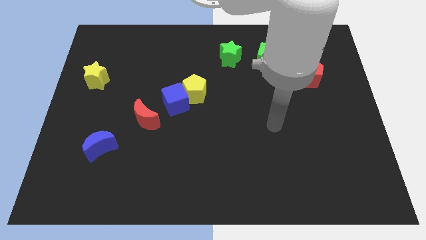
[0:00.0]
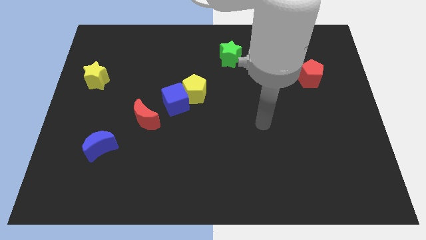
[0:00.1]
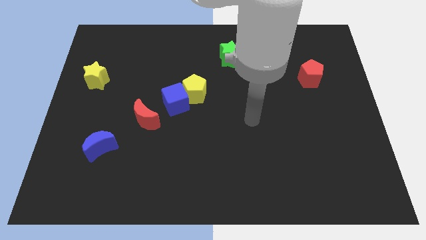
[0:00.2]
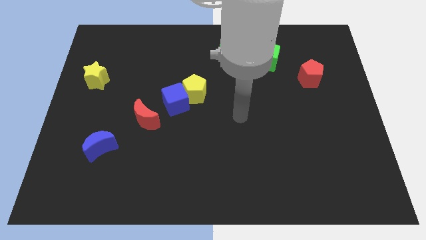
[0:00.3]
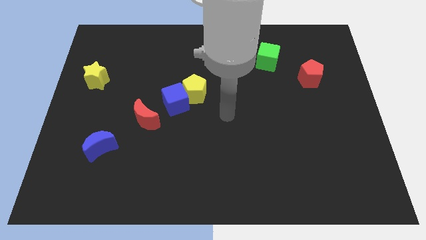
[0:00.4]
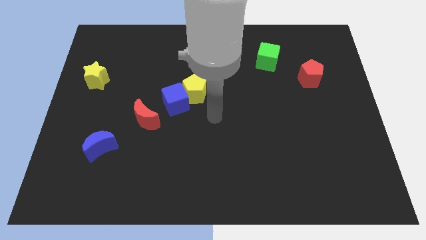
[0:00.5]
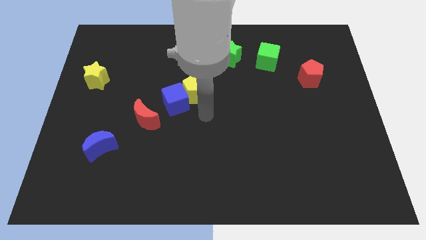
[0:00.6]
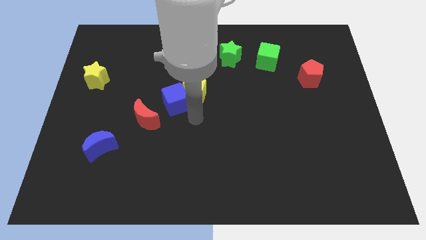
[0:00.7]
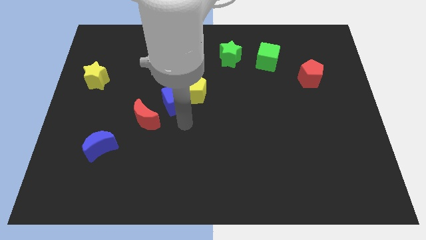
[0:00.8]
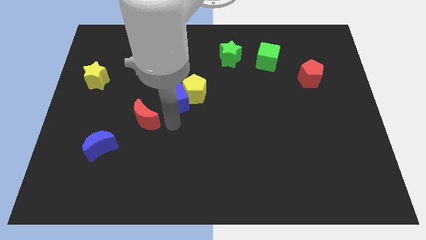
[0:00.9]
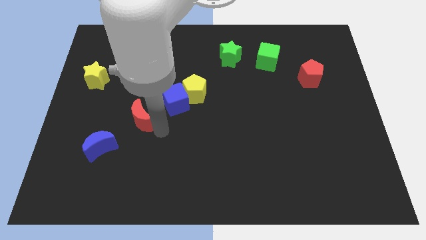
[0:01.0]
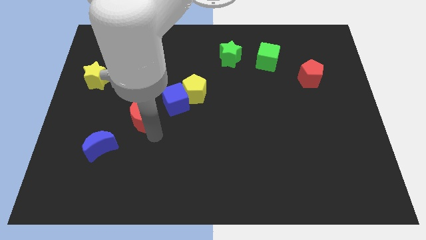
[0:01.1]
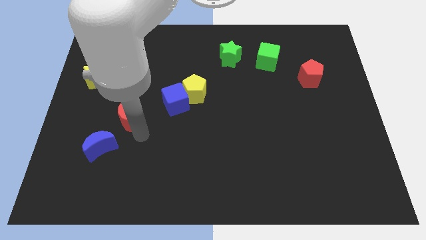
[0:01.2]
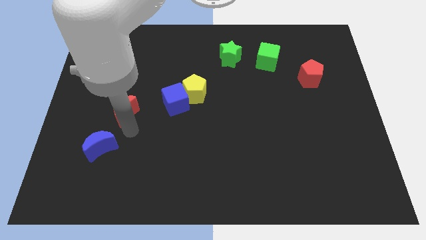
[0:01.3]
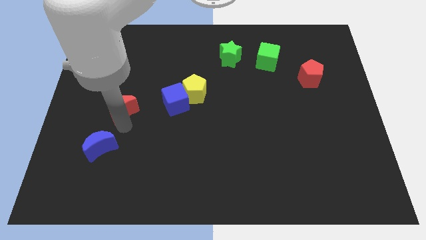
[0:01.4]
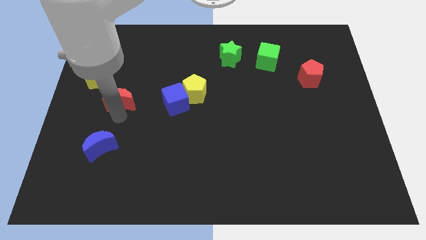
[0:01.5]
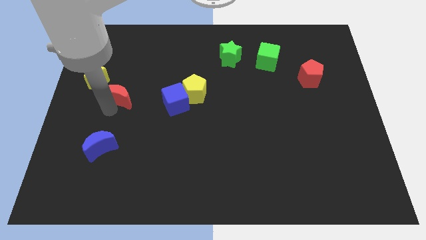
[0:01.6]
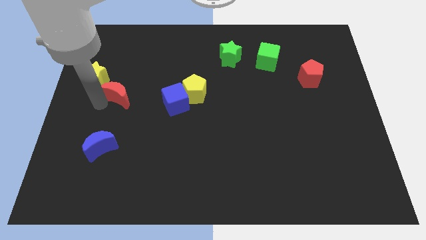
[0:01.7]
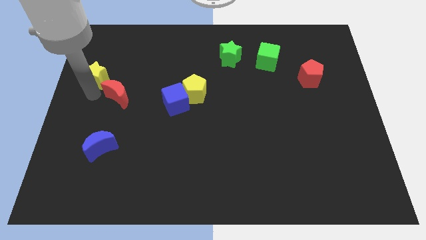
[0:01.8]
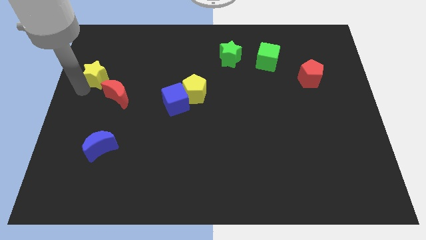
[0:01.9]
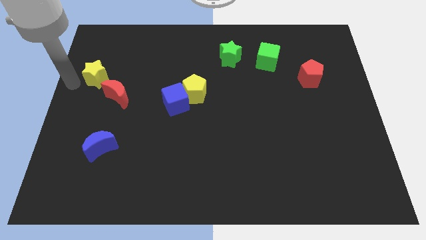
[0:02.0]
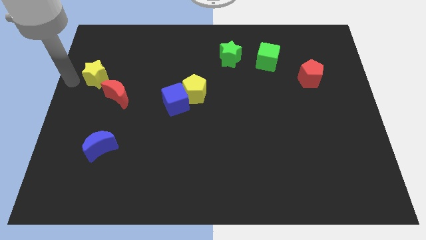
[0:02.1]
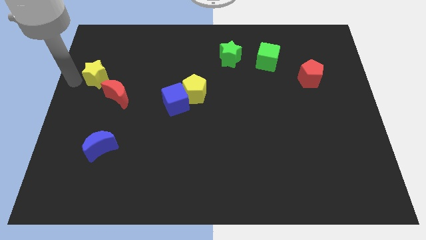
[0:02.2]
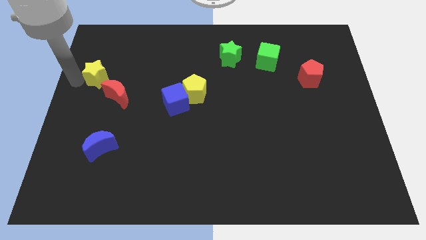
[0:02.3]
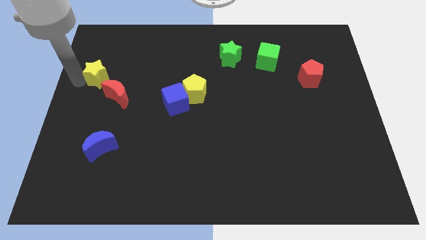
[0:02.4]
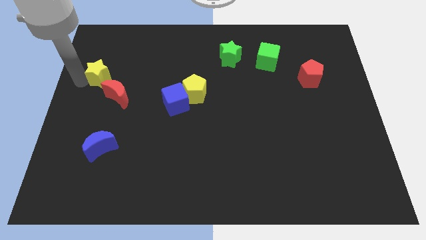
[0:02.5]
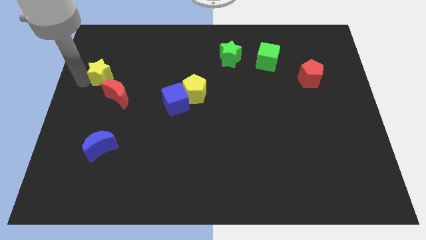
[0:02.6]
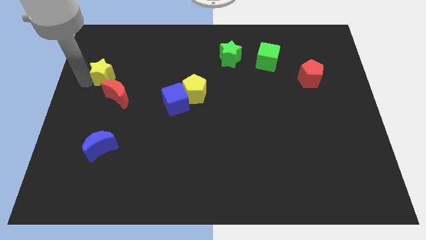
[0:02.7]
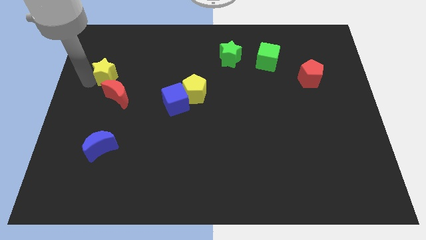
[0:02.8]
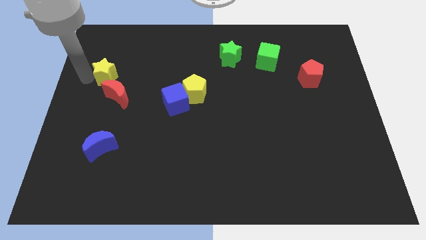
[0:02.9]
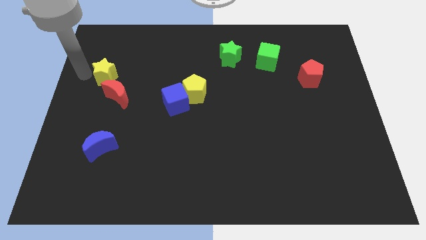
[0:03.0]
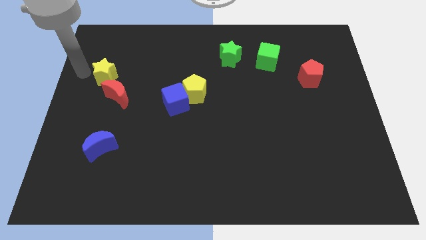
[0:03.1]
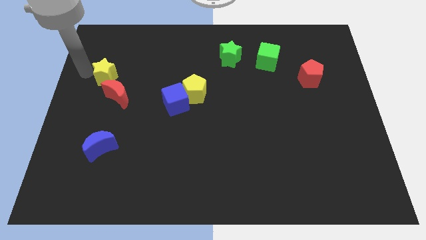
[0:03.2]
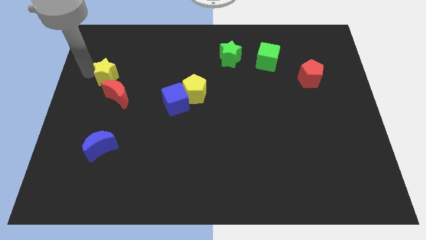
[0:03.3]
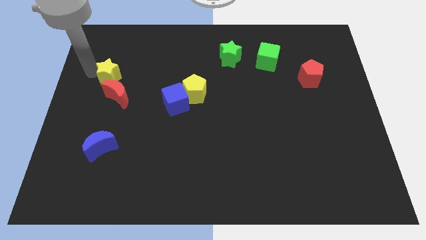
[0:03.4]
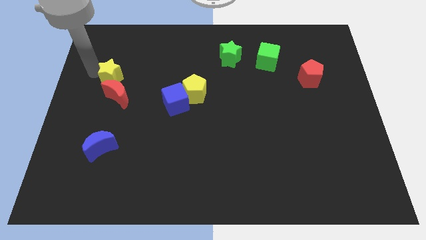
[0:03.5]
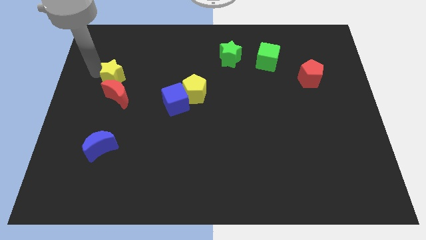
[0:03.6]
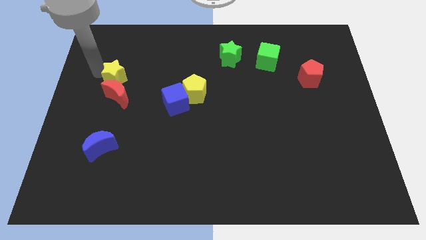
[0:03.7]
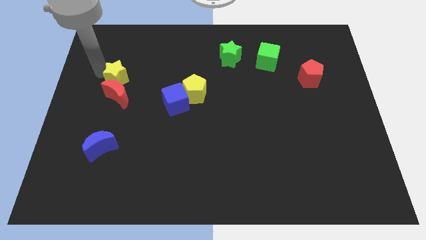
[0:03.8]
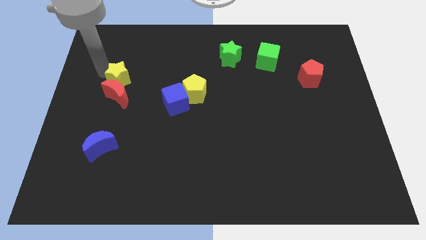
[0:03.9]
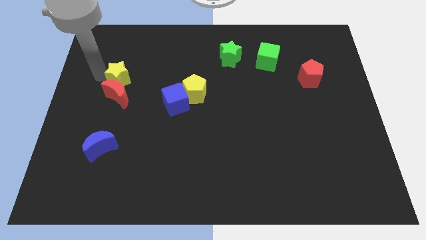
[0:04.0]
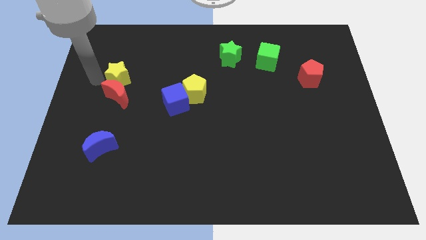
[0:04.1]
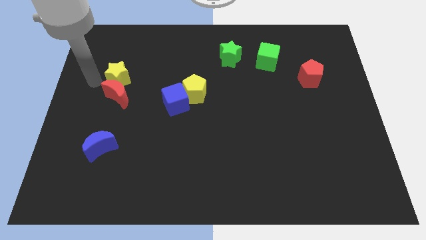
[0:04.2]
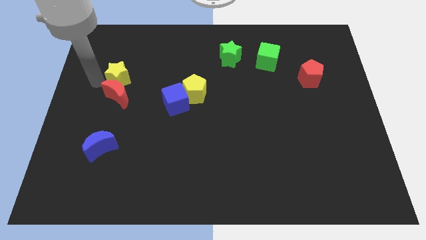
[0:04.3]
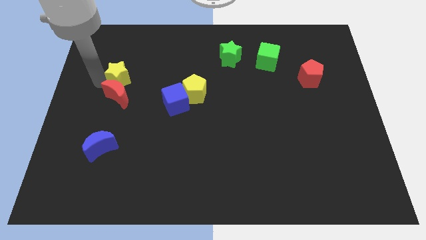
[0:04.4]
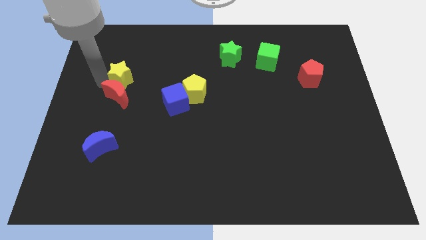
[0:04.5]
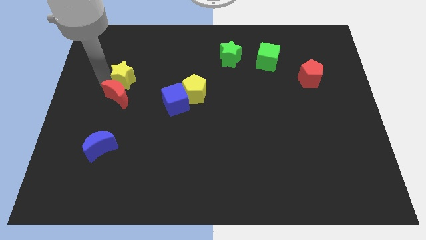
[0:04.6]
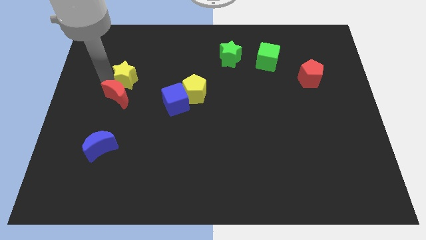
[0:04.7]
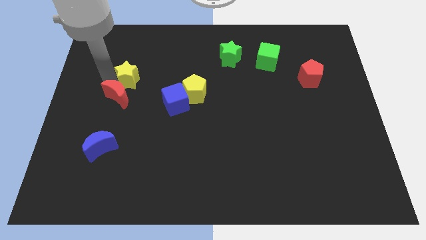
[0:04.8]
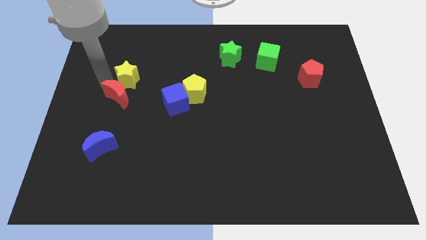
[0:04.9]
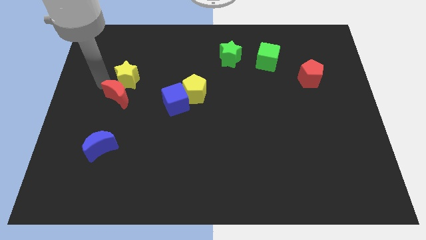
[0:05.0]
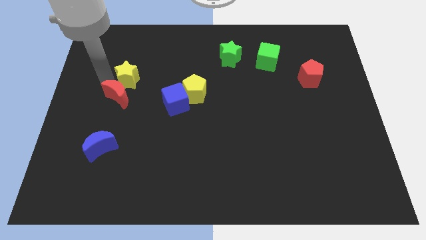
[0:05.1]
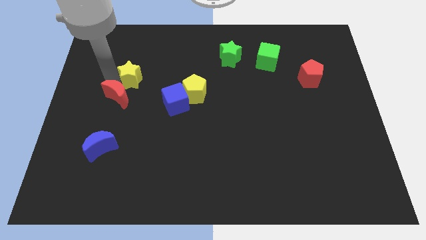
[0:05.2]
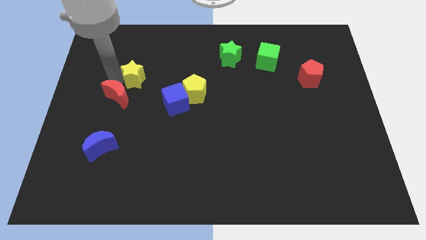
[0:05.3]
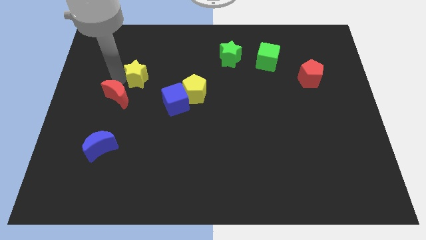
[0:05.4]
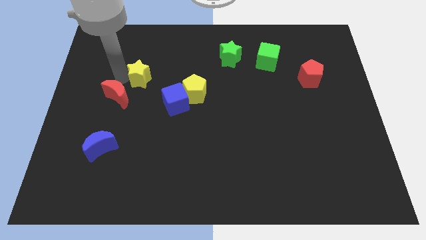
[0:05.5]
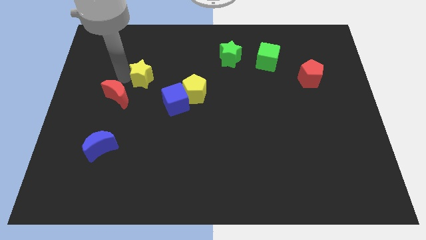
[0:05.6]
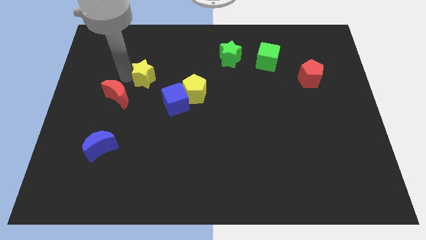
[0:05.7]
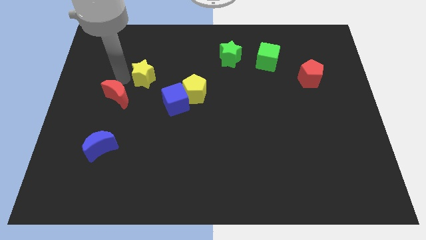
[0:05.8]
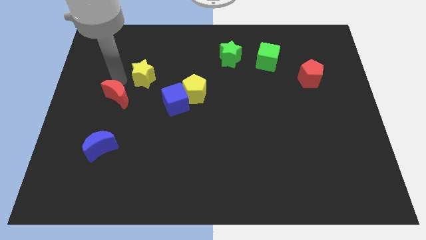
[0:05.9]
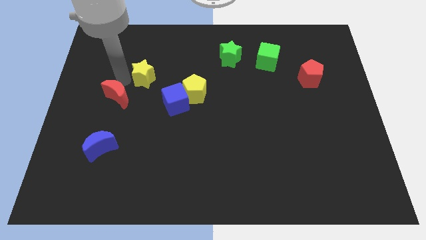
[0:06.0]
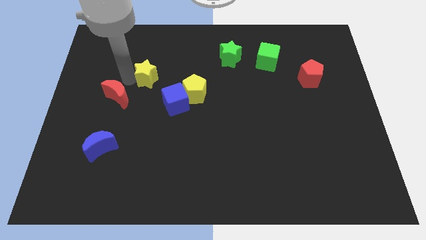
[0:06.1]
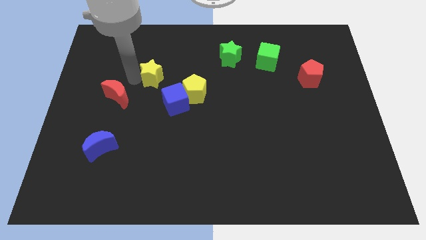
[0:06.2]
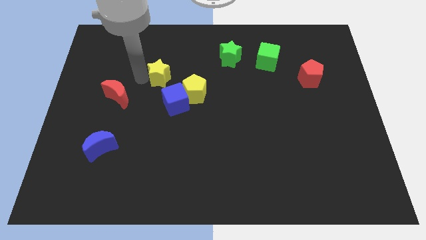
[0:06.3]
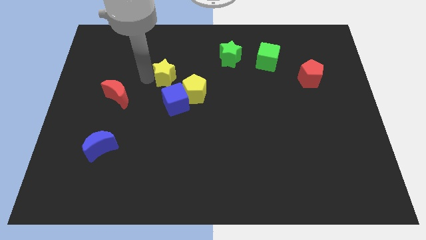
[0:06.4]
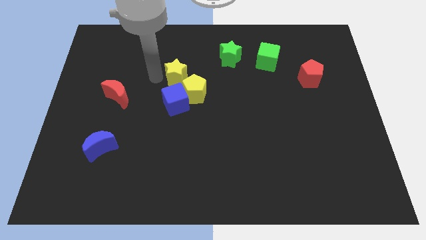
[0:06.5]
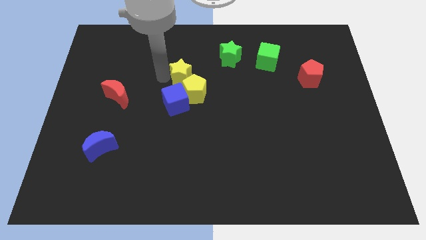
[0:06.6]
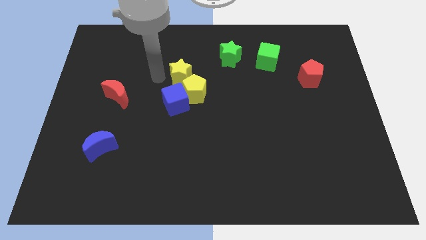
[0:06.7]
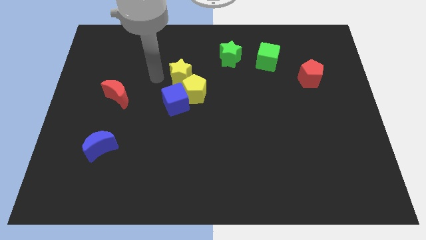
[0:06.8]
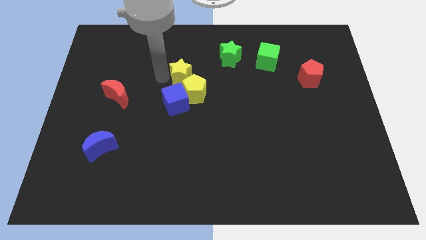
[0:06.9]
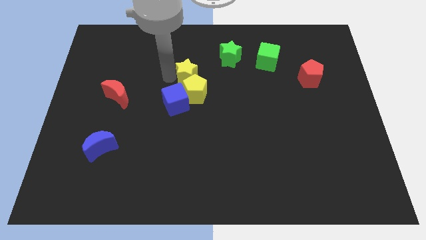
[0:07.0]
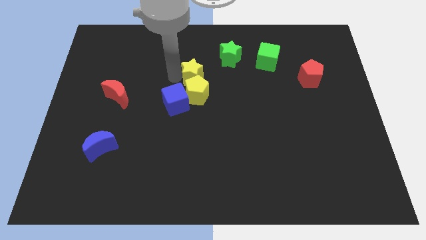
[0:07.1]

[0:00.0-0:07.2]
put the yellow star to the top right of the yellow pentagon
